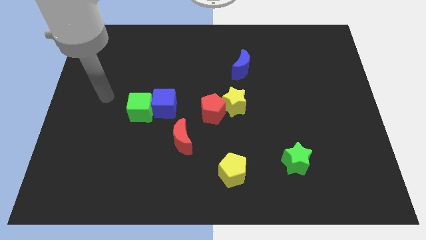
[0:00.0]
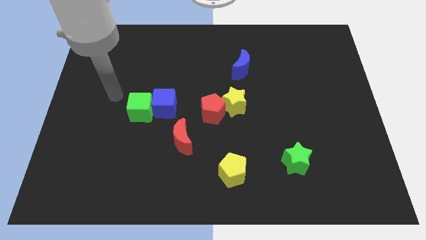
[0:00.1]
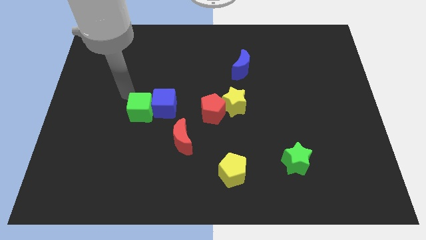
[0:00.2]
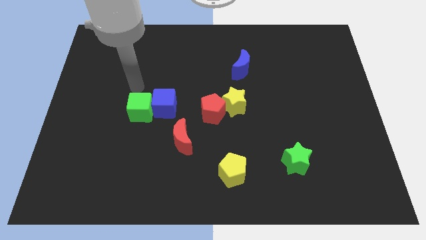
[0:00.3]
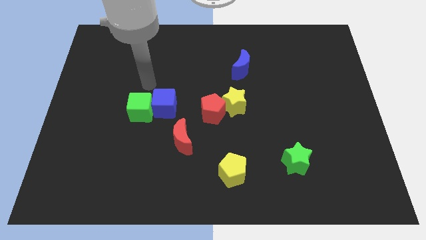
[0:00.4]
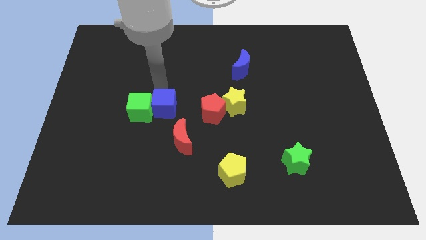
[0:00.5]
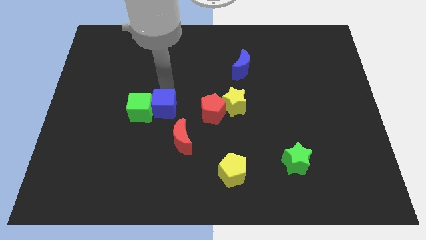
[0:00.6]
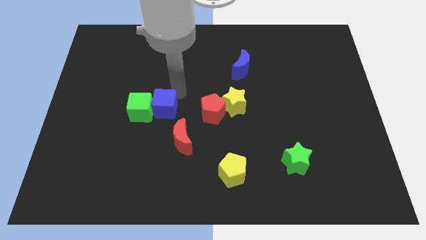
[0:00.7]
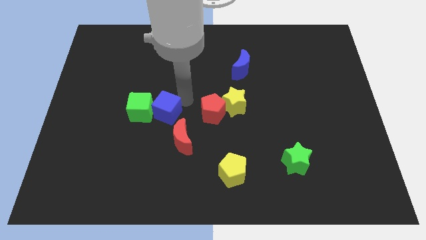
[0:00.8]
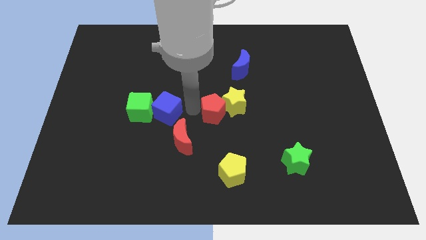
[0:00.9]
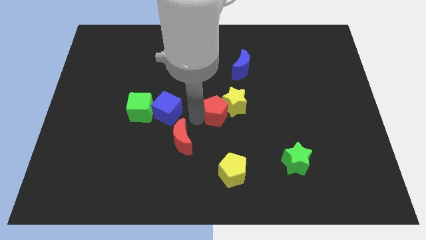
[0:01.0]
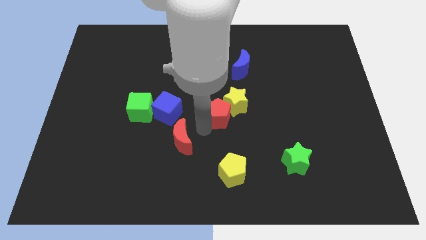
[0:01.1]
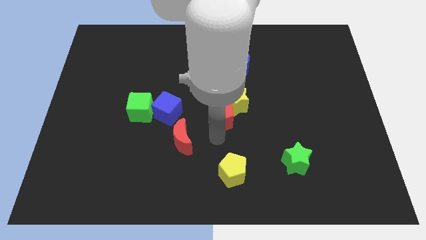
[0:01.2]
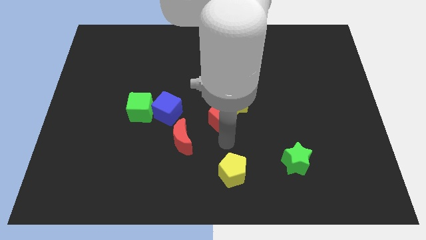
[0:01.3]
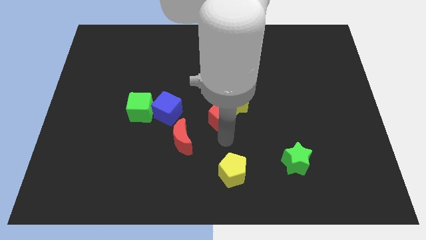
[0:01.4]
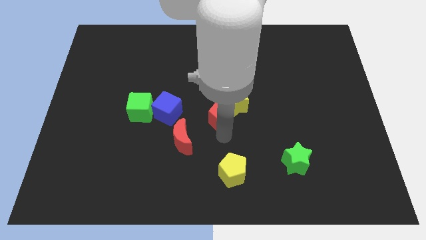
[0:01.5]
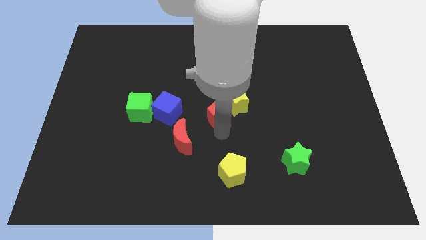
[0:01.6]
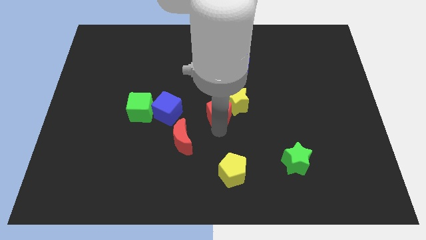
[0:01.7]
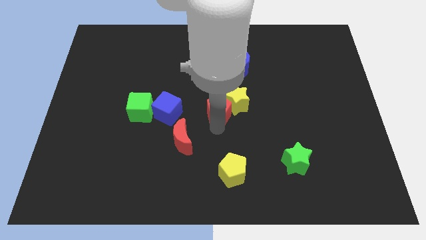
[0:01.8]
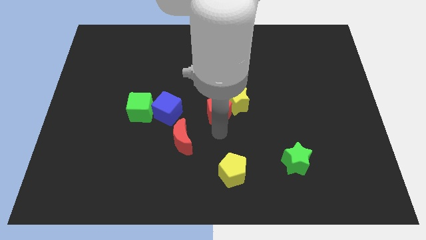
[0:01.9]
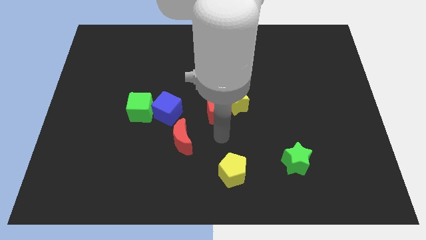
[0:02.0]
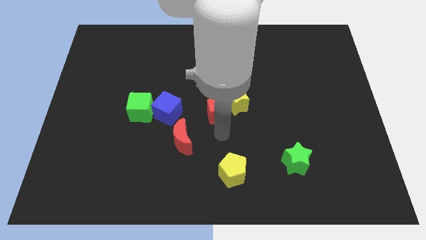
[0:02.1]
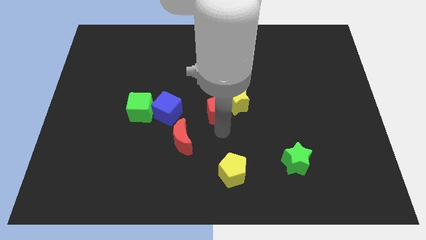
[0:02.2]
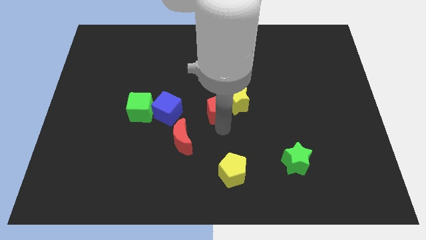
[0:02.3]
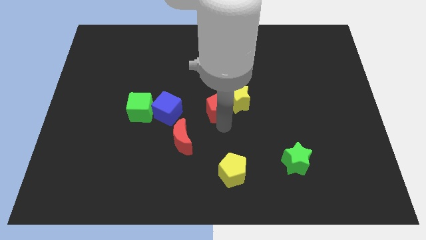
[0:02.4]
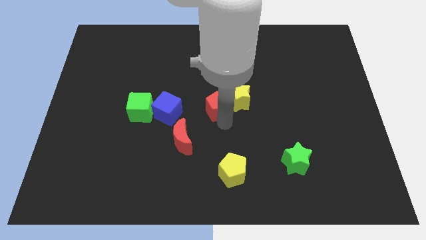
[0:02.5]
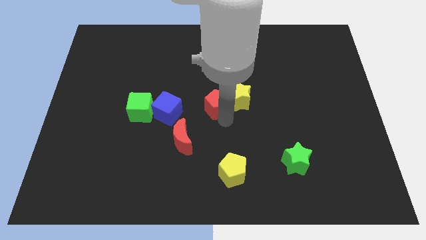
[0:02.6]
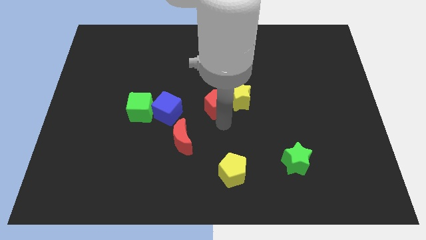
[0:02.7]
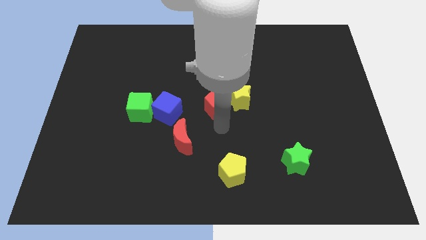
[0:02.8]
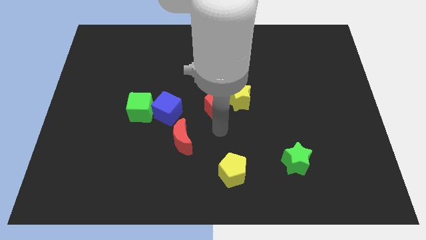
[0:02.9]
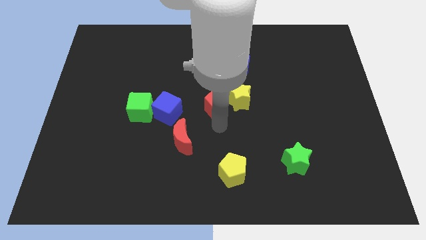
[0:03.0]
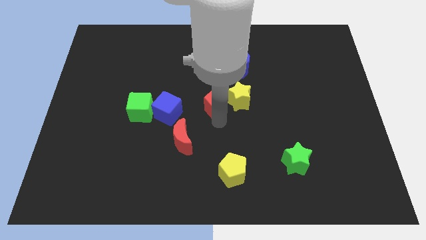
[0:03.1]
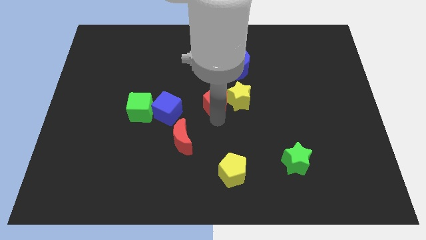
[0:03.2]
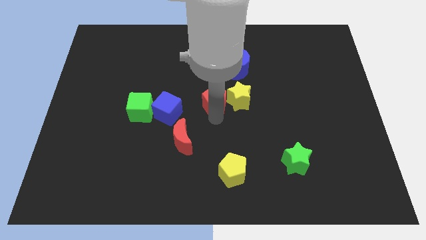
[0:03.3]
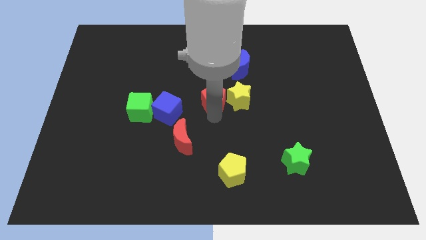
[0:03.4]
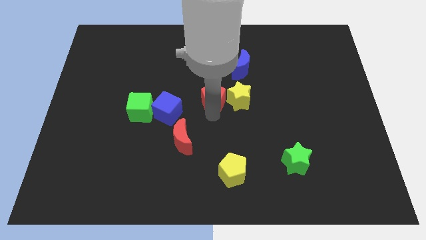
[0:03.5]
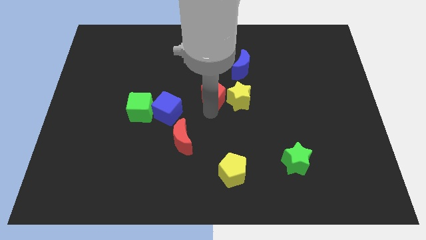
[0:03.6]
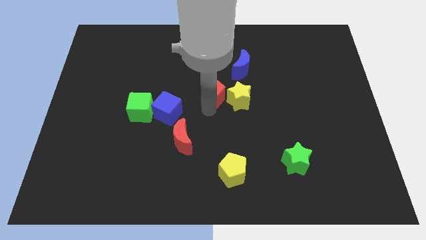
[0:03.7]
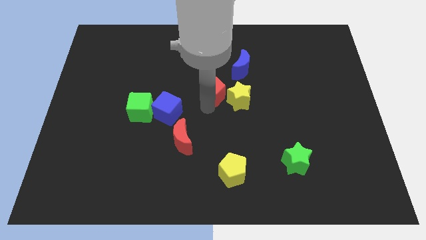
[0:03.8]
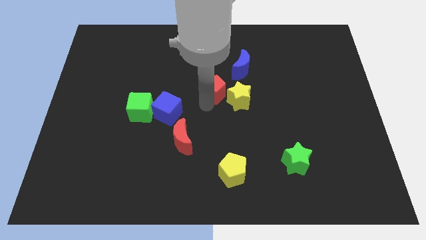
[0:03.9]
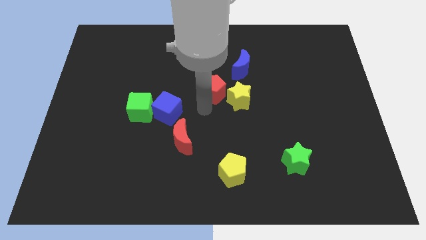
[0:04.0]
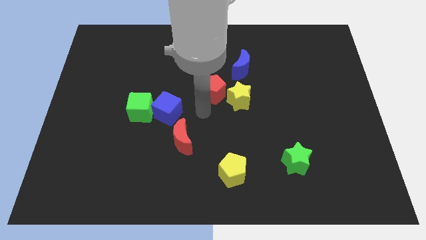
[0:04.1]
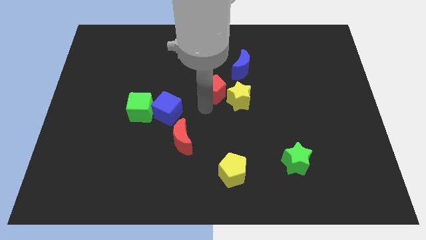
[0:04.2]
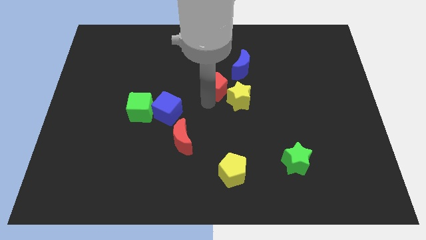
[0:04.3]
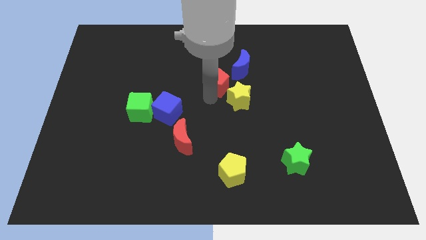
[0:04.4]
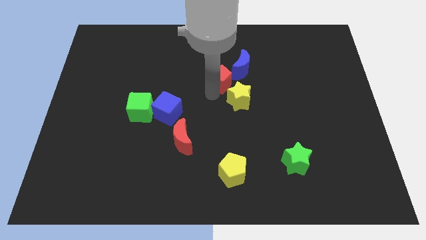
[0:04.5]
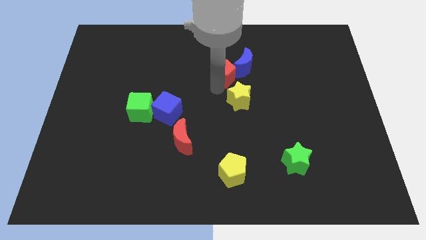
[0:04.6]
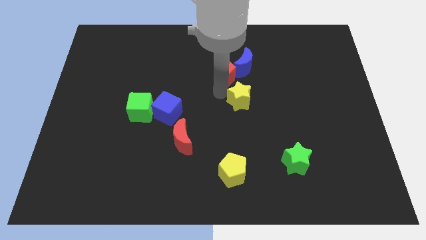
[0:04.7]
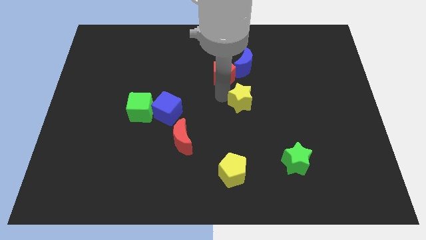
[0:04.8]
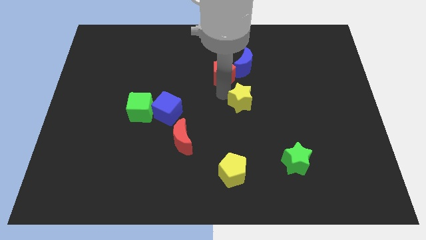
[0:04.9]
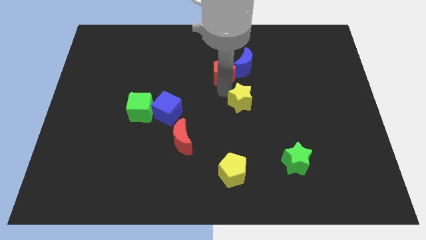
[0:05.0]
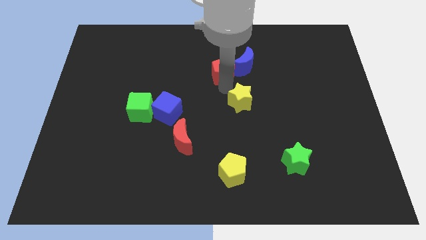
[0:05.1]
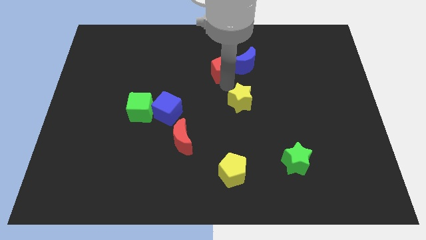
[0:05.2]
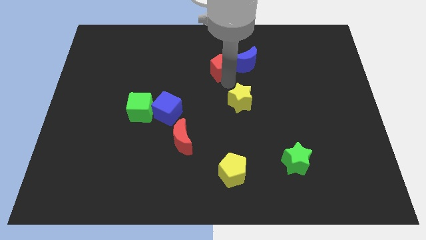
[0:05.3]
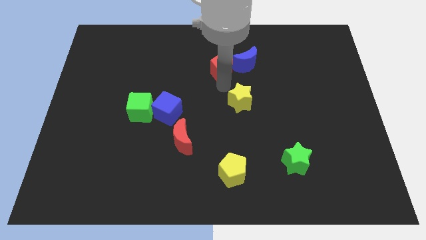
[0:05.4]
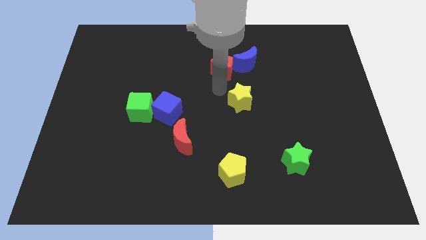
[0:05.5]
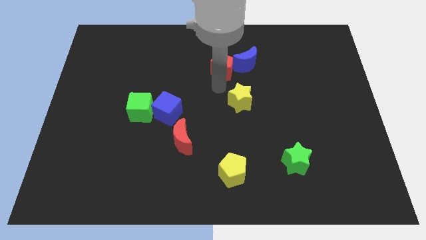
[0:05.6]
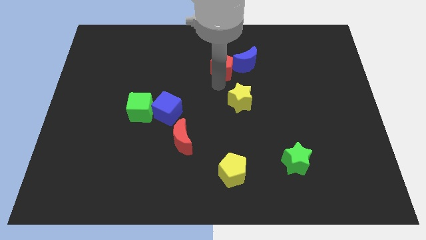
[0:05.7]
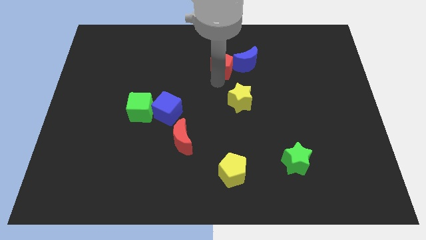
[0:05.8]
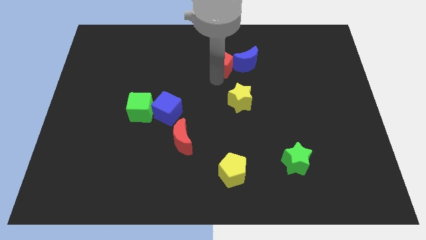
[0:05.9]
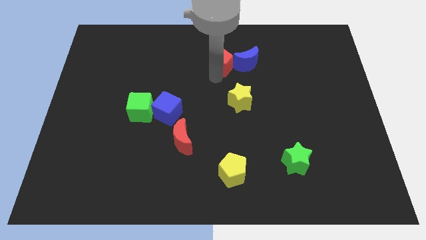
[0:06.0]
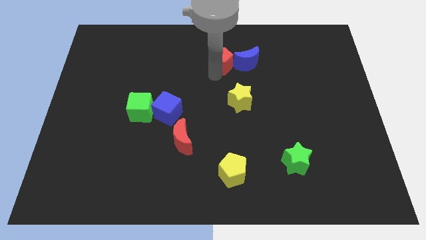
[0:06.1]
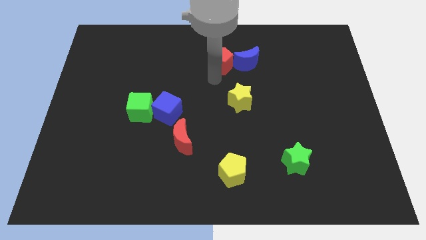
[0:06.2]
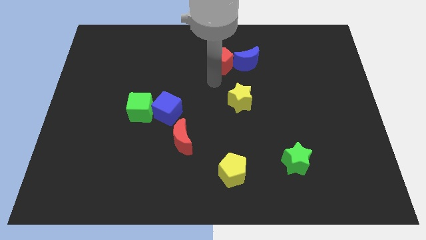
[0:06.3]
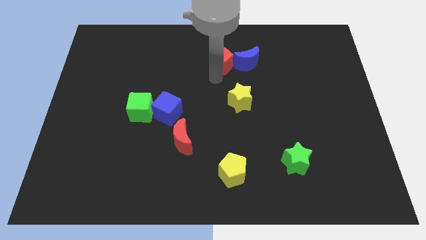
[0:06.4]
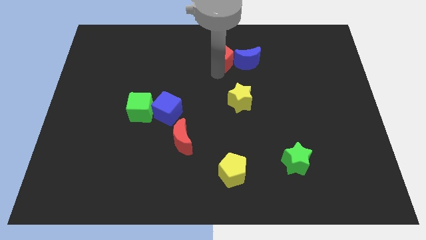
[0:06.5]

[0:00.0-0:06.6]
push the red pentagon diagonally up and to the left of the blue moon
